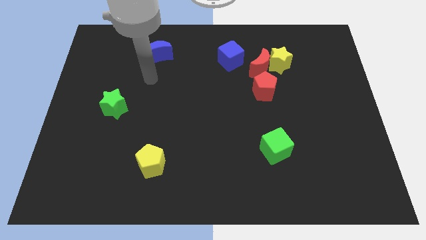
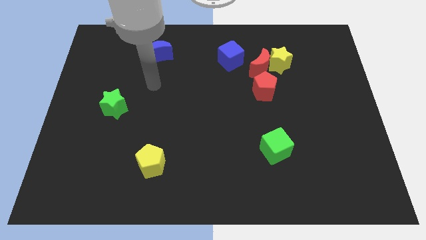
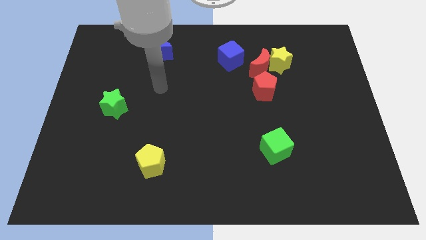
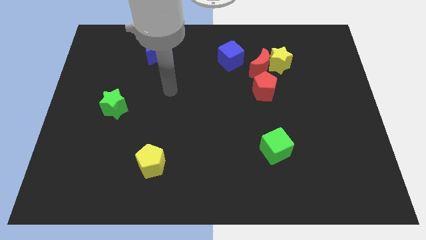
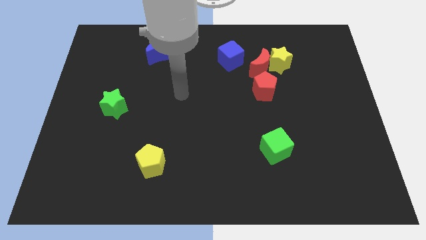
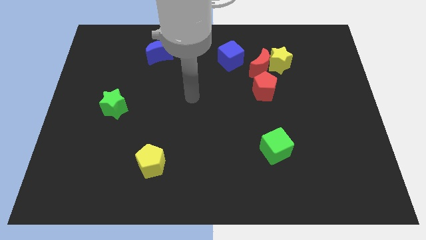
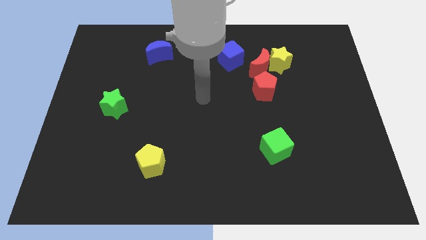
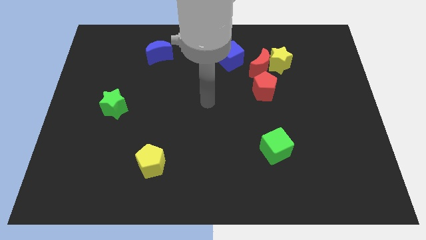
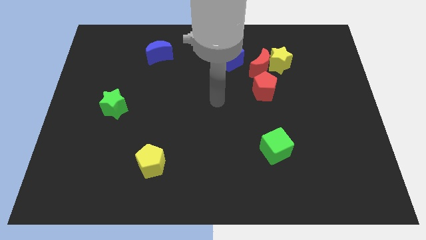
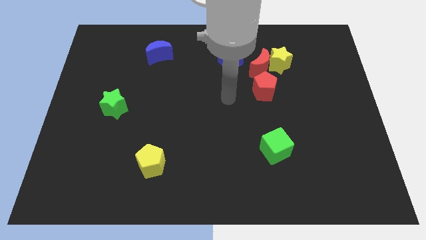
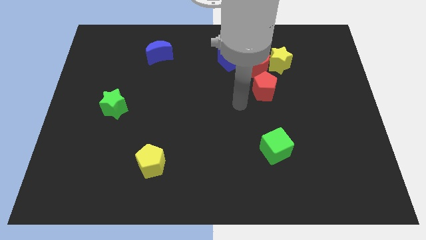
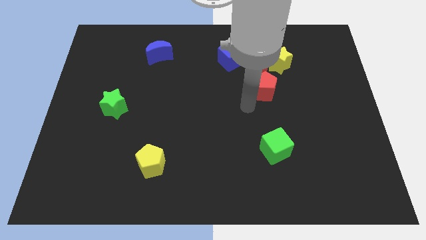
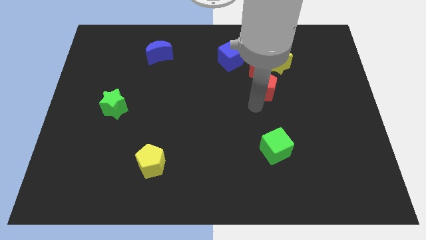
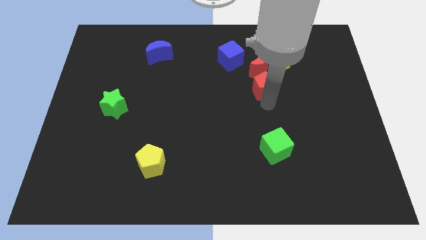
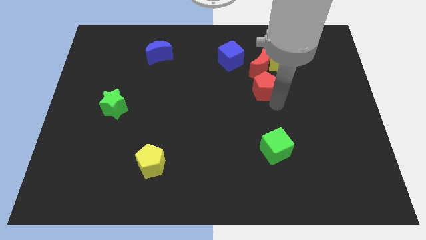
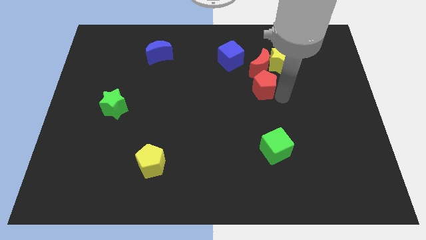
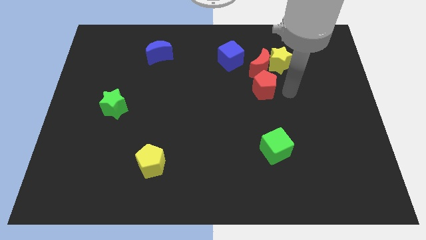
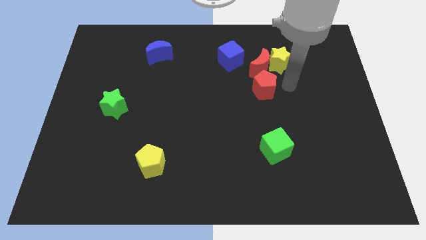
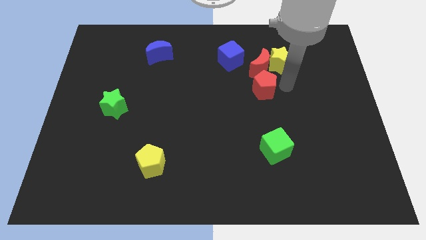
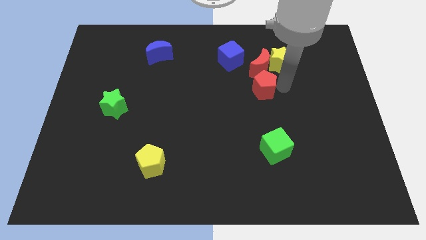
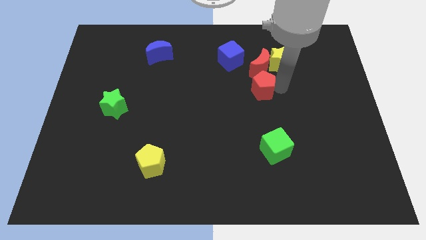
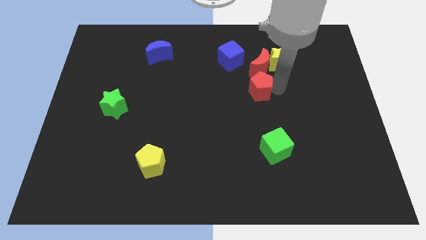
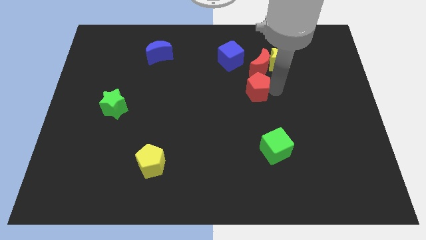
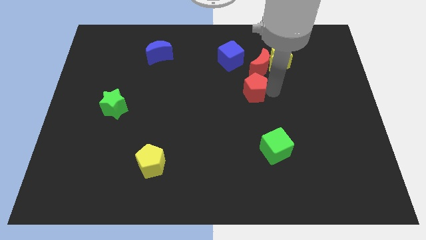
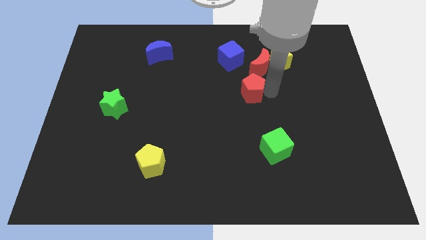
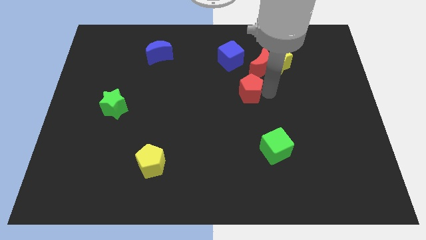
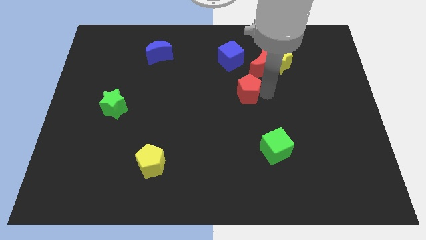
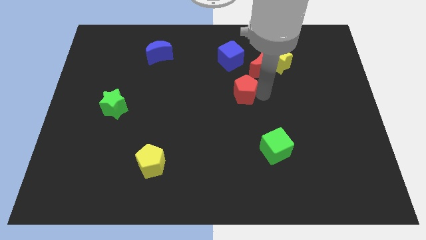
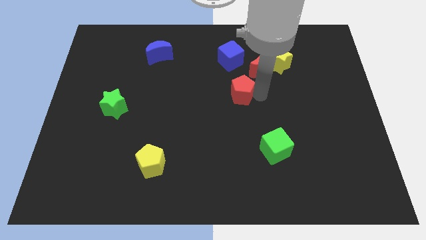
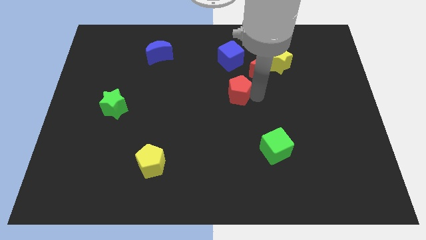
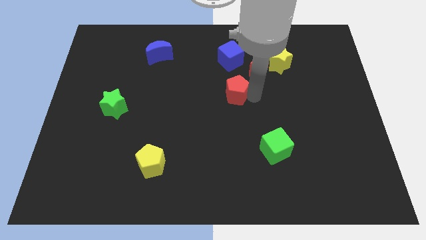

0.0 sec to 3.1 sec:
push the red pentagon to the left a bit

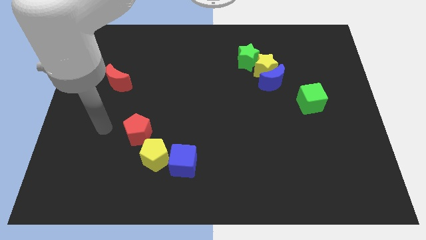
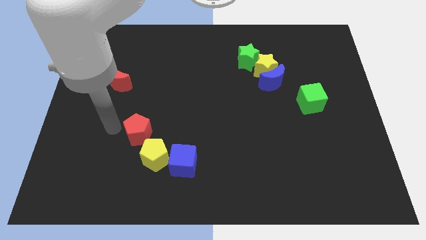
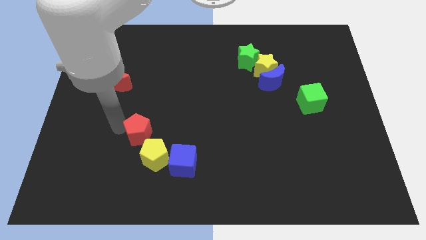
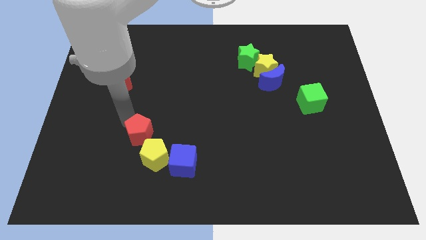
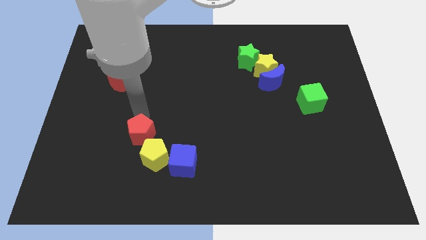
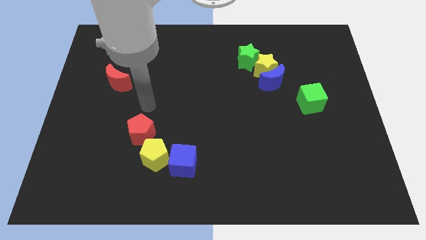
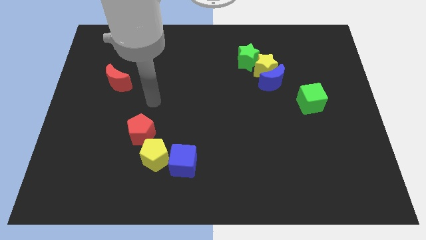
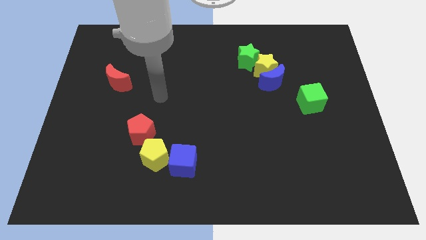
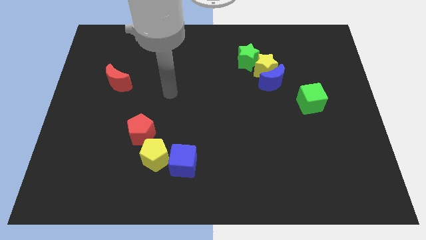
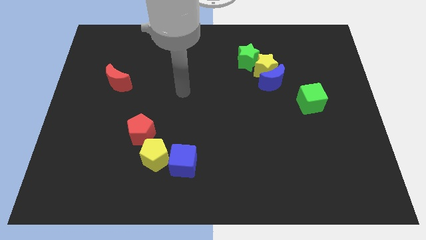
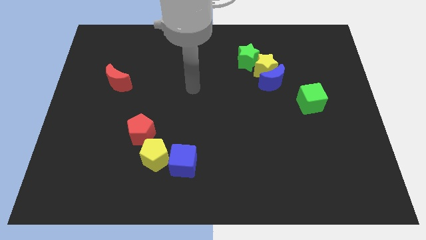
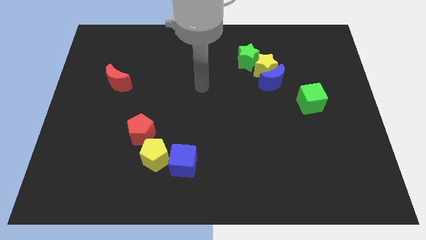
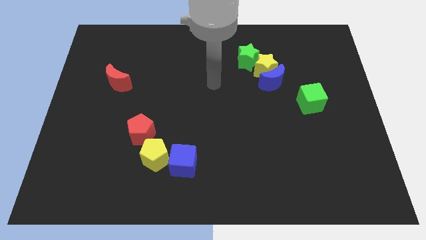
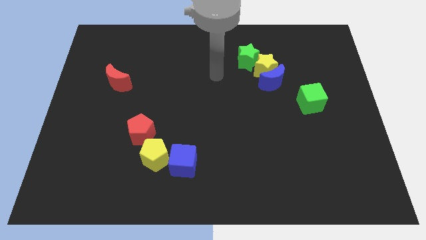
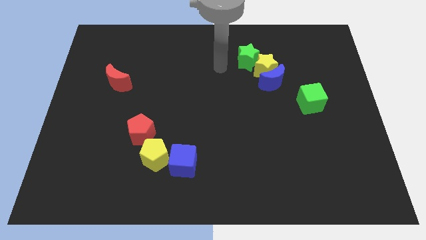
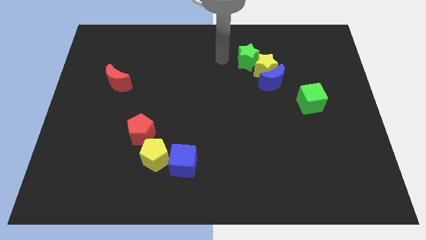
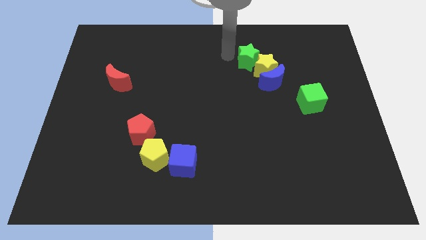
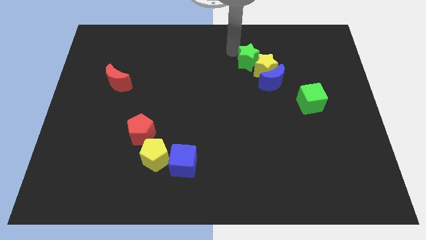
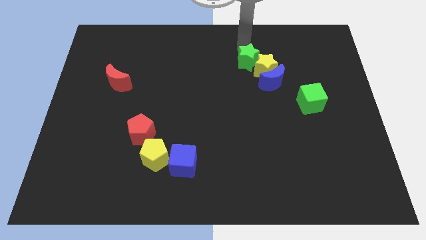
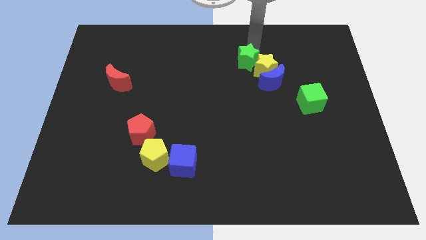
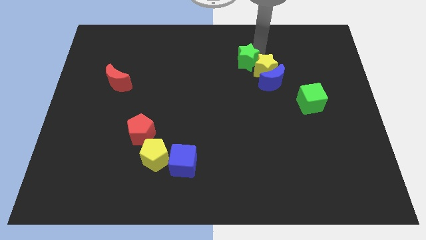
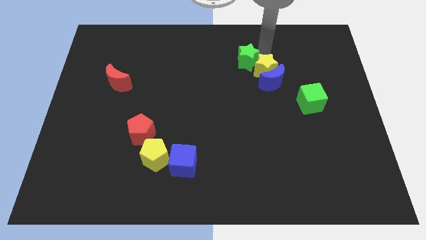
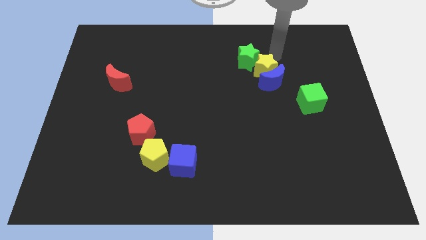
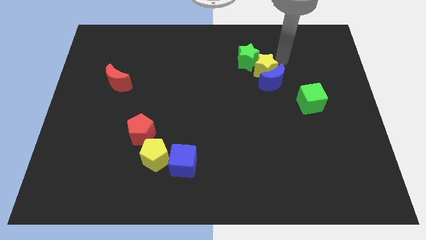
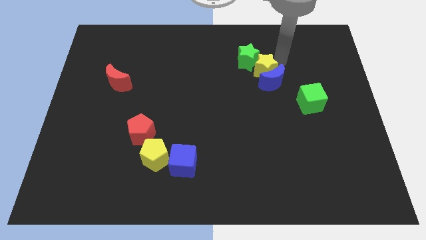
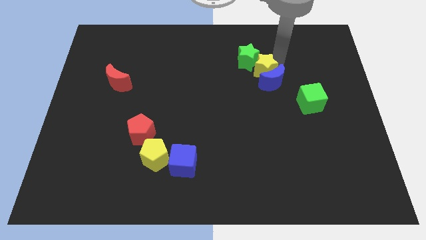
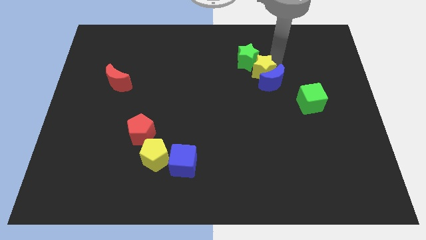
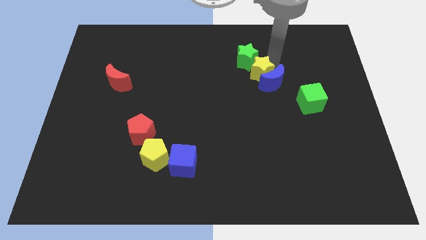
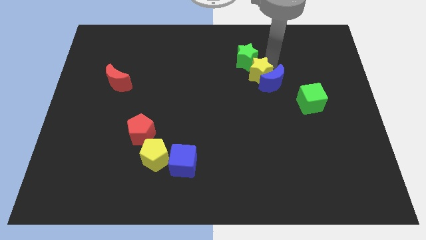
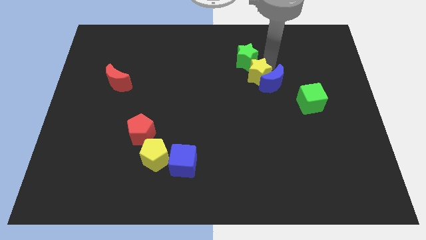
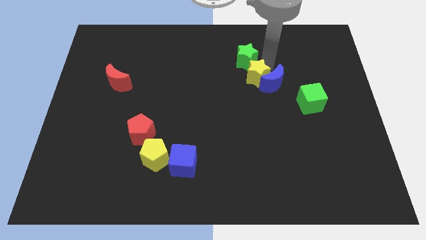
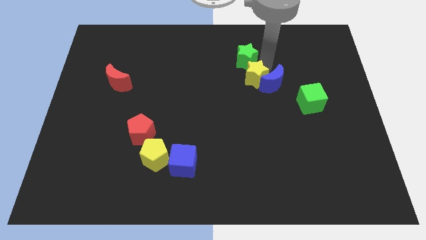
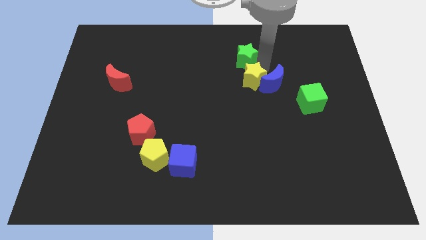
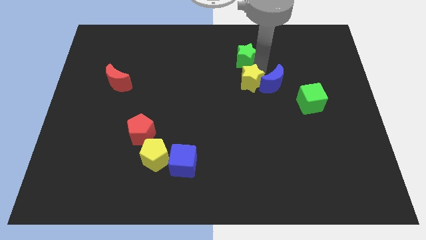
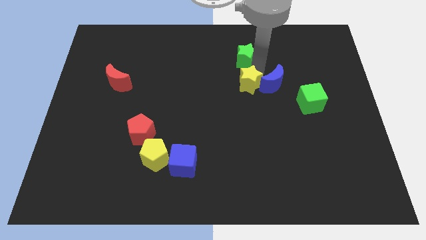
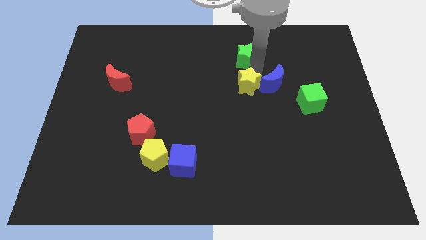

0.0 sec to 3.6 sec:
slide the yellow star downwards and to the left diagonally somewhat

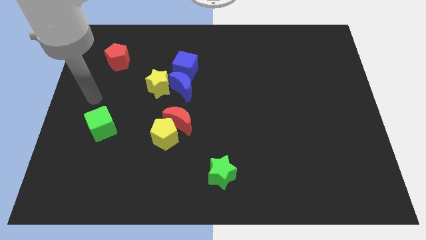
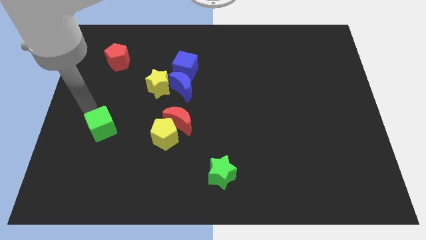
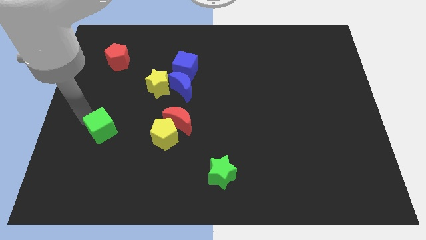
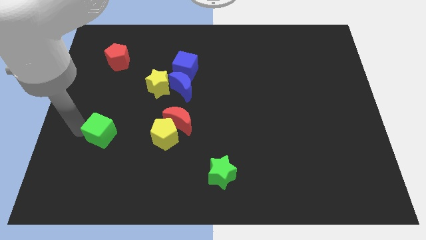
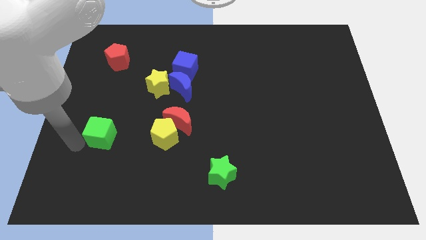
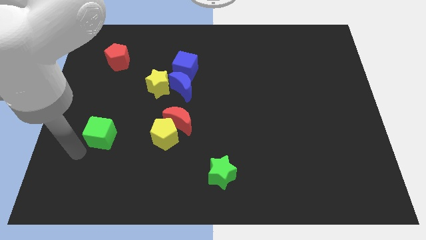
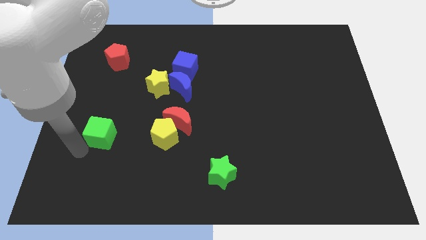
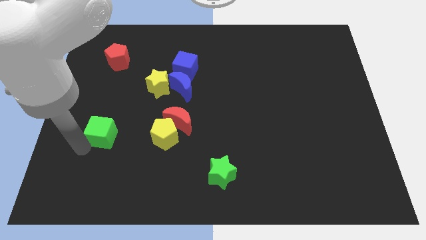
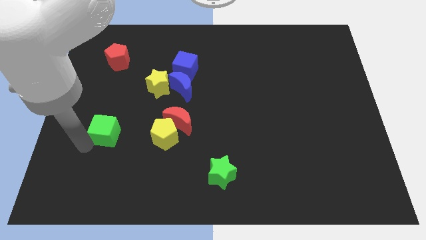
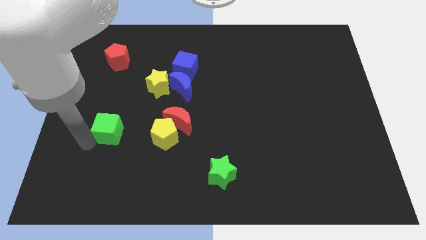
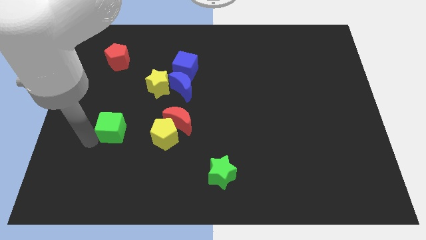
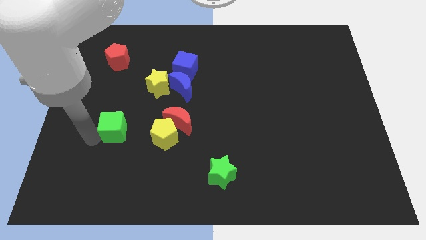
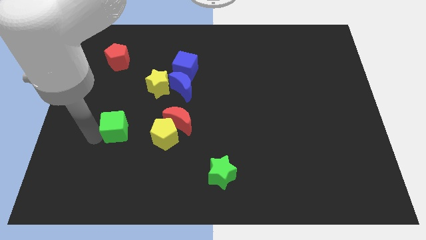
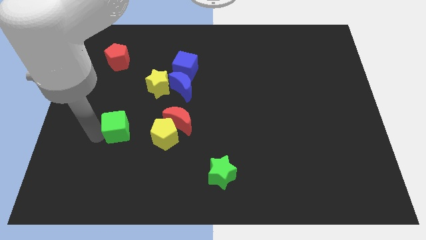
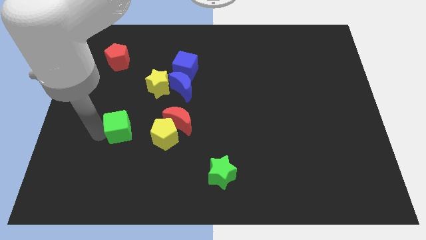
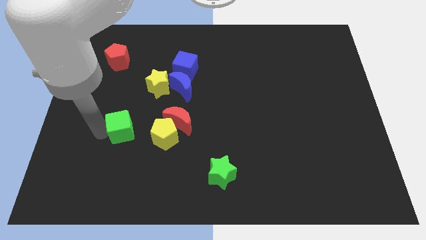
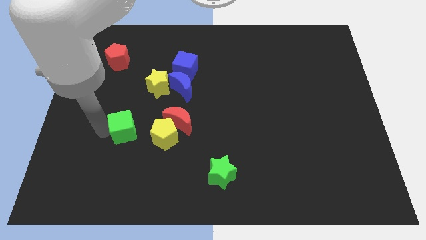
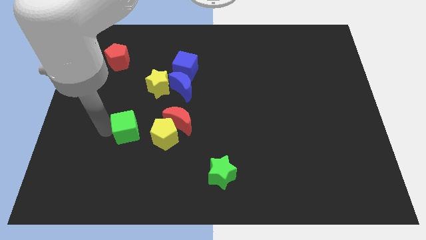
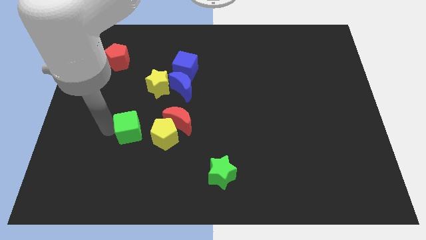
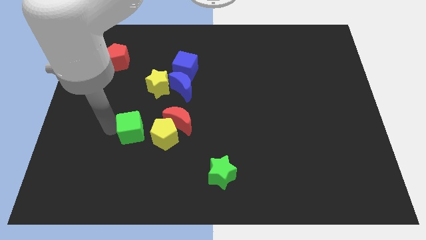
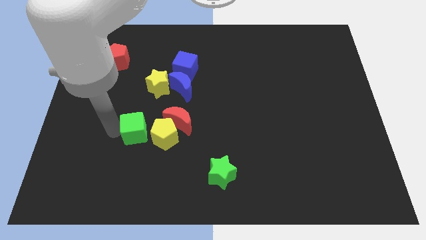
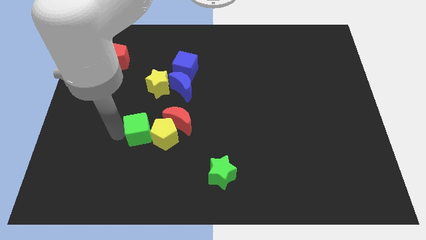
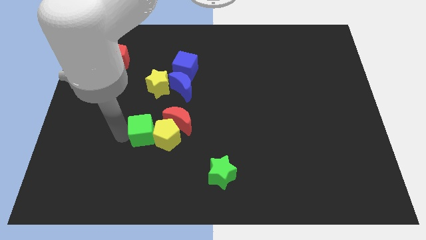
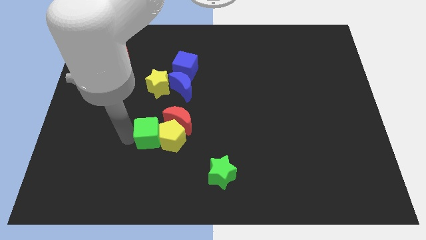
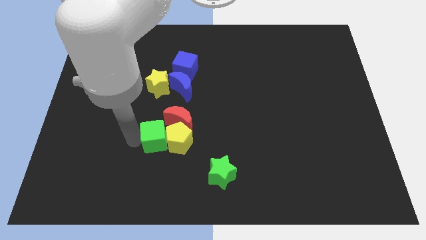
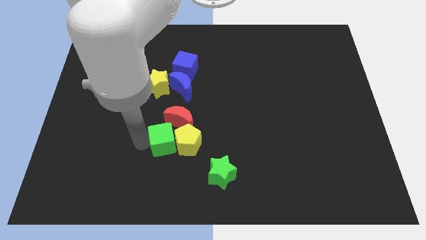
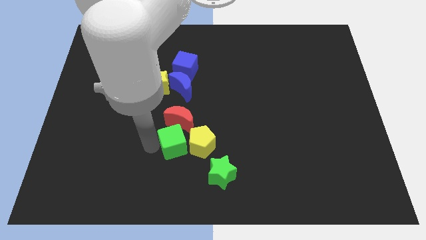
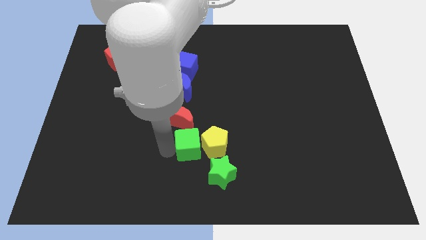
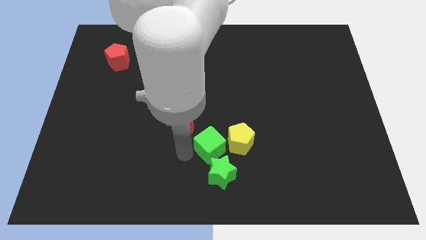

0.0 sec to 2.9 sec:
slide the green cube to the right
